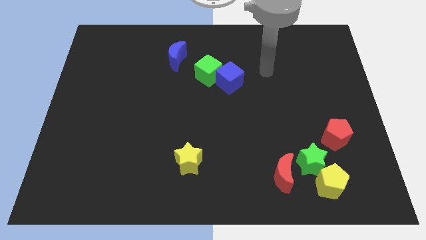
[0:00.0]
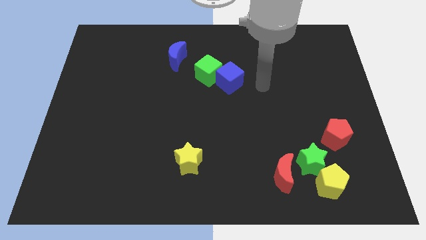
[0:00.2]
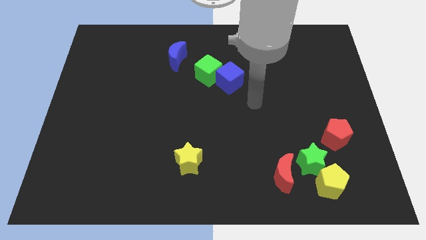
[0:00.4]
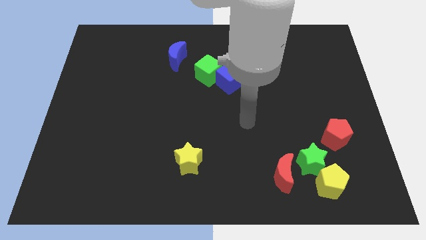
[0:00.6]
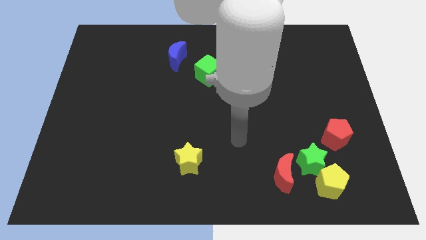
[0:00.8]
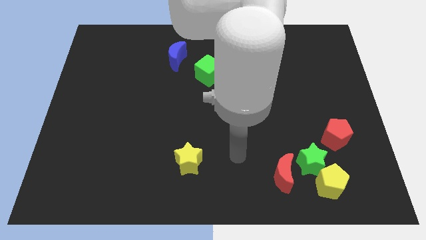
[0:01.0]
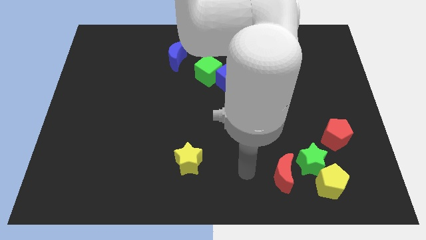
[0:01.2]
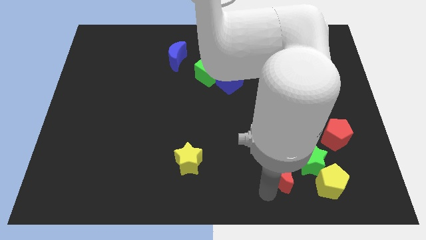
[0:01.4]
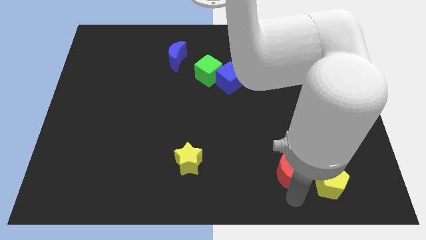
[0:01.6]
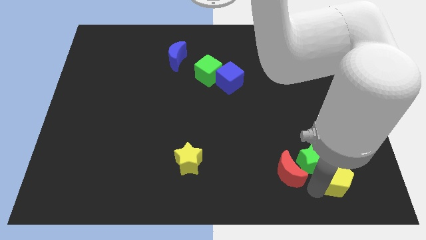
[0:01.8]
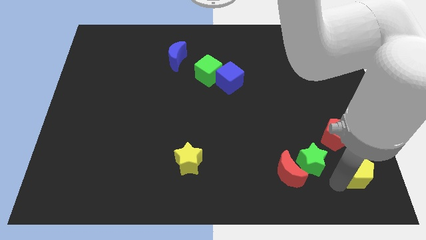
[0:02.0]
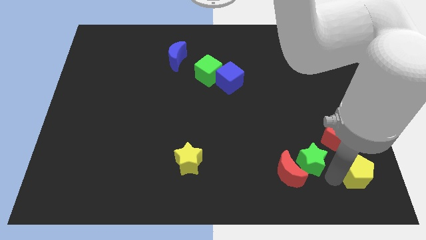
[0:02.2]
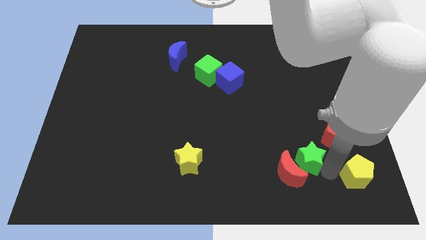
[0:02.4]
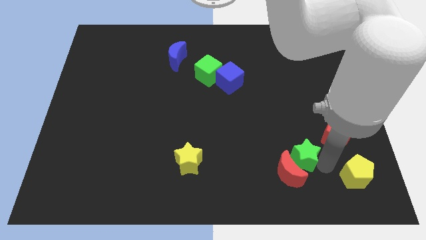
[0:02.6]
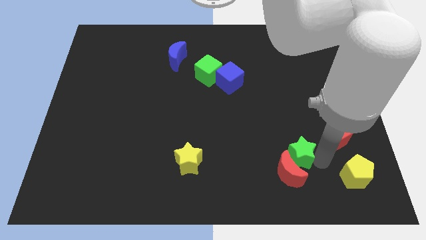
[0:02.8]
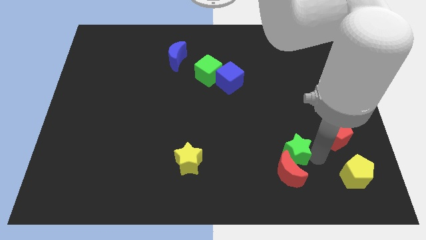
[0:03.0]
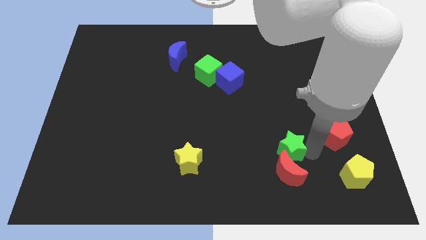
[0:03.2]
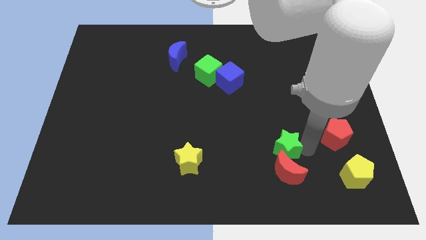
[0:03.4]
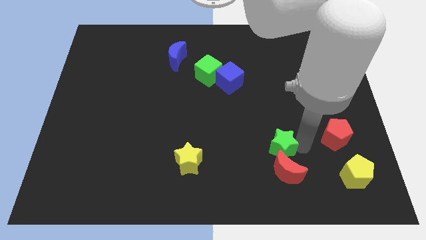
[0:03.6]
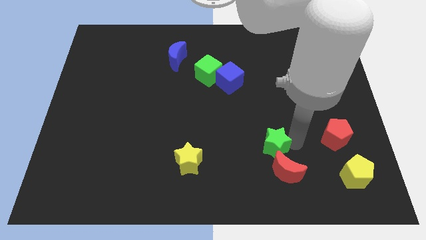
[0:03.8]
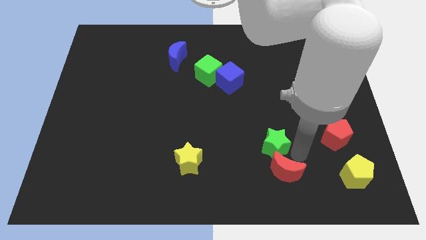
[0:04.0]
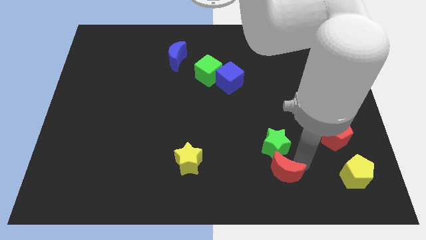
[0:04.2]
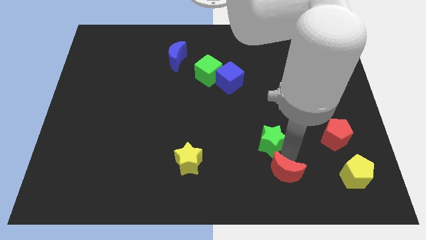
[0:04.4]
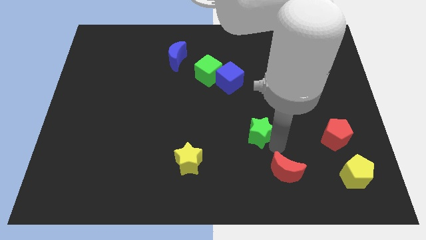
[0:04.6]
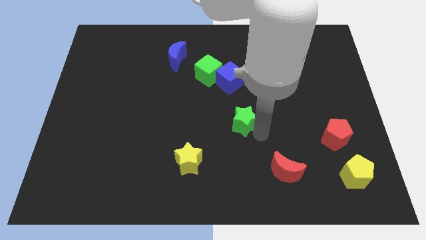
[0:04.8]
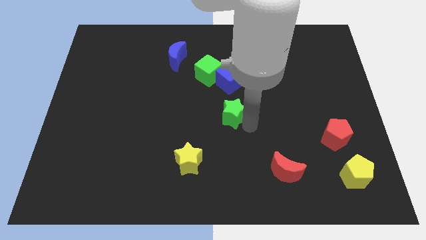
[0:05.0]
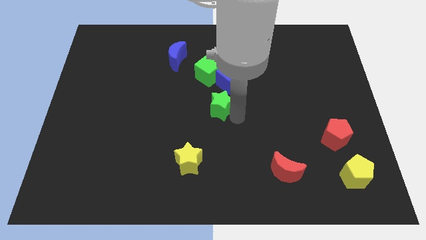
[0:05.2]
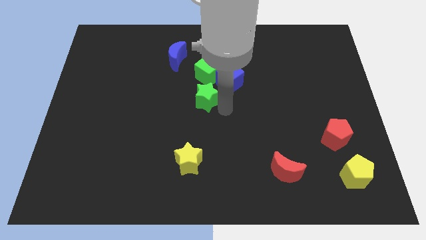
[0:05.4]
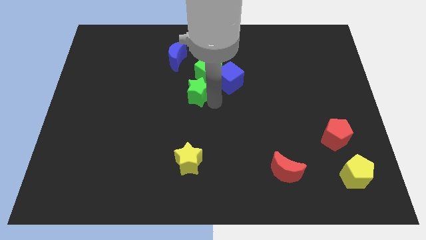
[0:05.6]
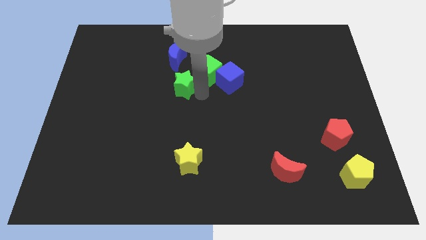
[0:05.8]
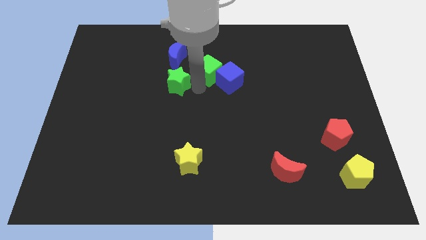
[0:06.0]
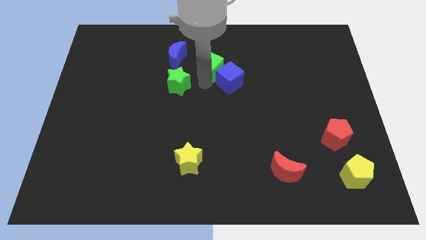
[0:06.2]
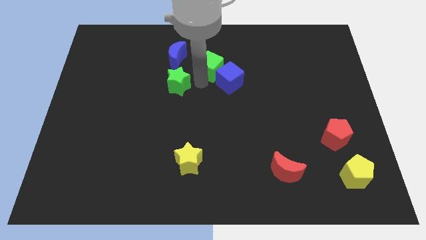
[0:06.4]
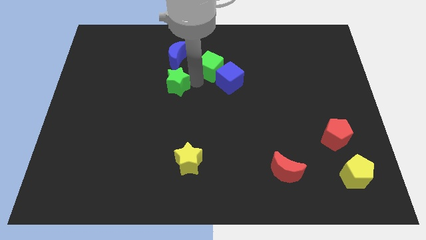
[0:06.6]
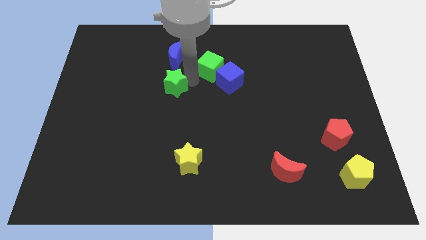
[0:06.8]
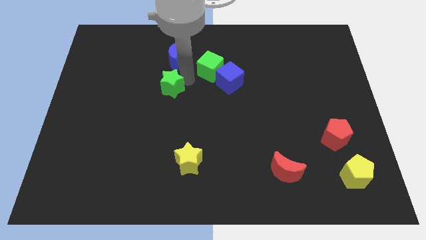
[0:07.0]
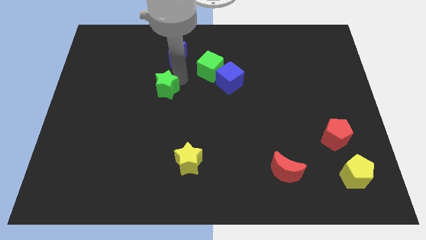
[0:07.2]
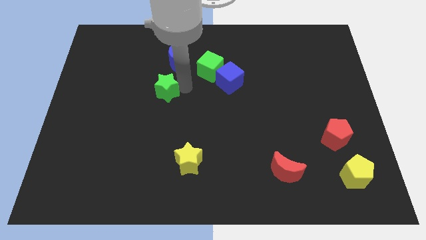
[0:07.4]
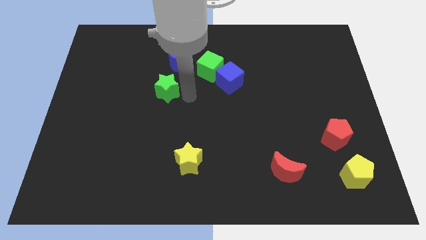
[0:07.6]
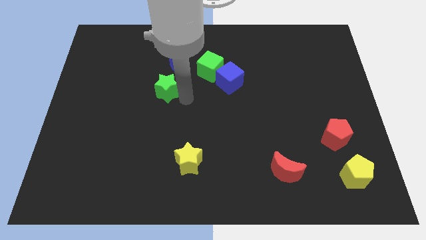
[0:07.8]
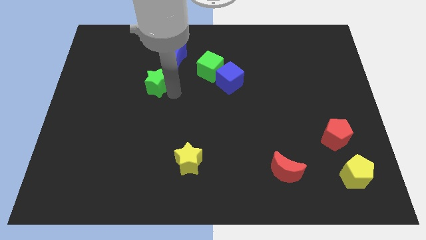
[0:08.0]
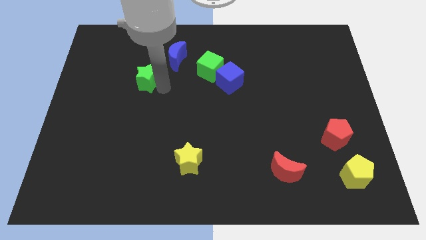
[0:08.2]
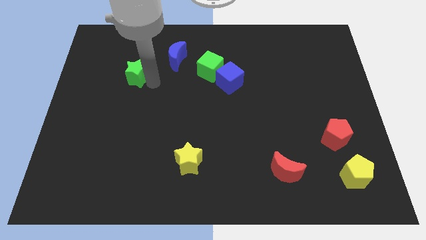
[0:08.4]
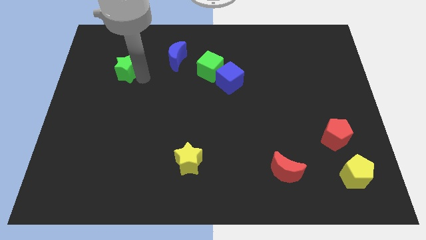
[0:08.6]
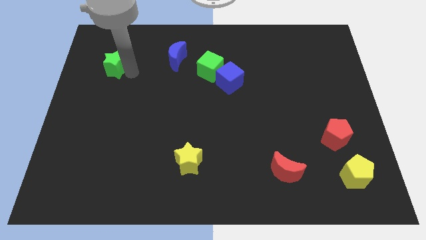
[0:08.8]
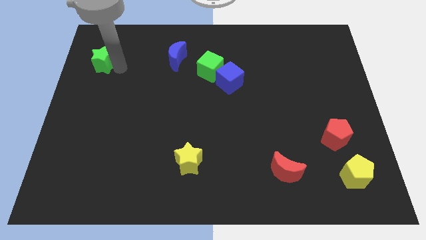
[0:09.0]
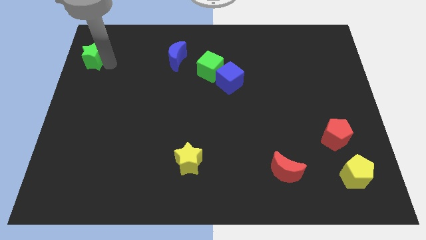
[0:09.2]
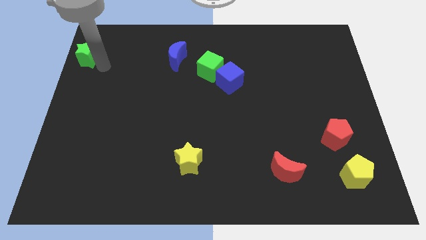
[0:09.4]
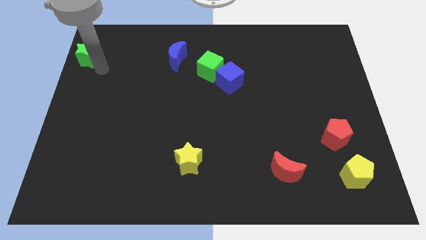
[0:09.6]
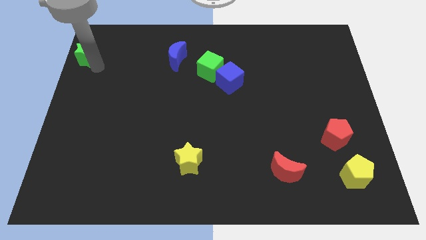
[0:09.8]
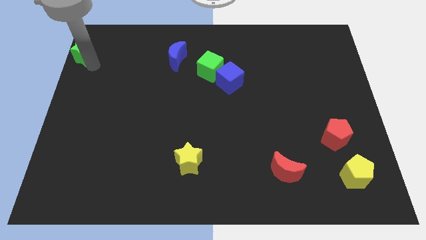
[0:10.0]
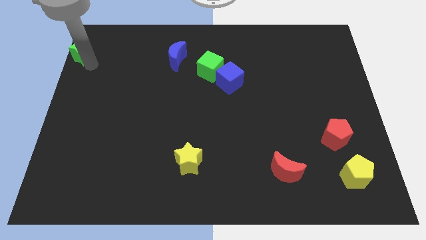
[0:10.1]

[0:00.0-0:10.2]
move the green star to the top left

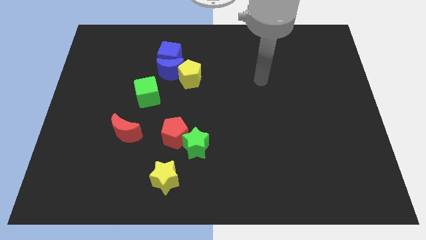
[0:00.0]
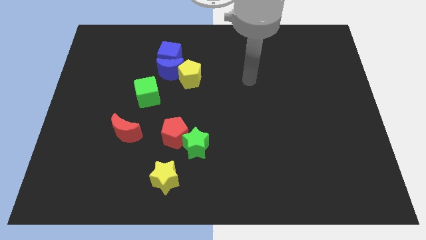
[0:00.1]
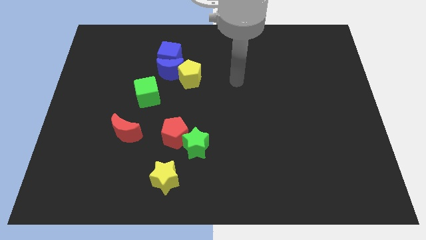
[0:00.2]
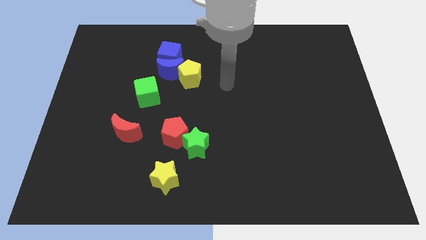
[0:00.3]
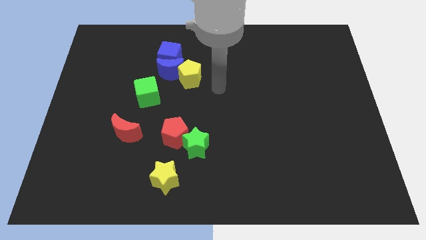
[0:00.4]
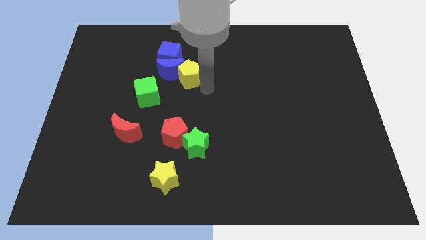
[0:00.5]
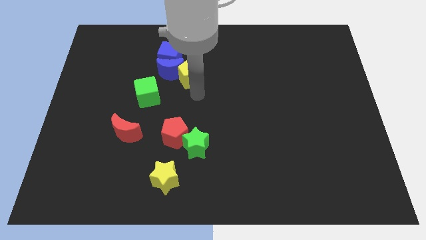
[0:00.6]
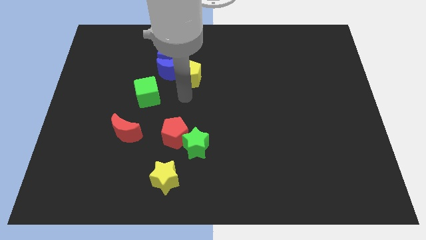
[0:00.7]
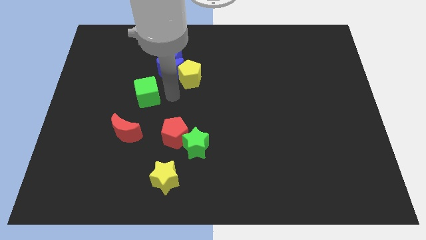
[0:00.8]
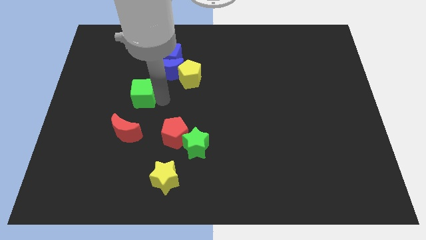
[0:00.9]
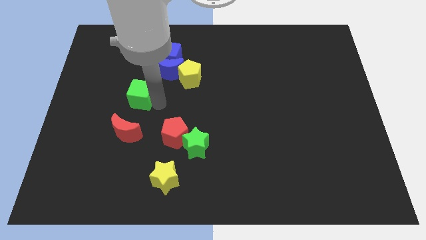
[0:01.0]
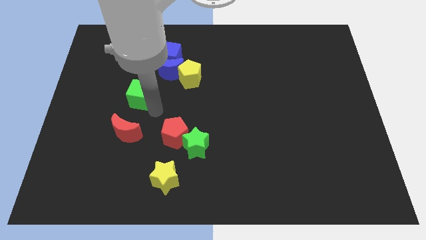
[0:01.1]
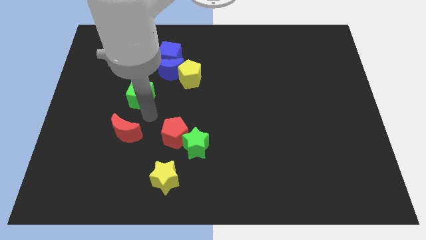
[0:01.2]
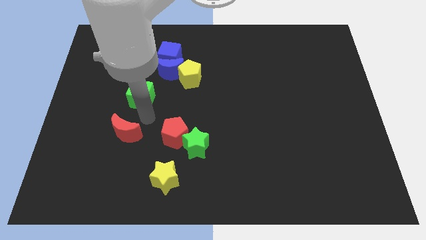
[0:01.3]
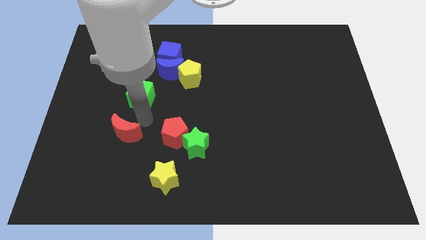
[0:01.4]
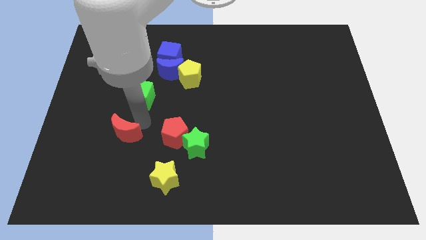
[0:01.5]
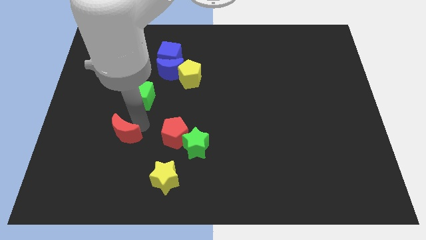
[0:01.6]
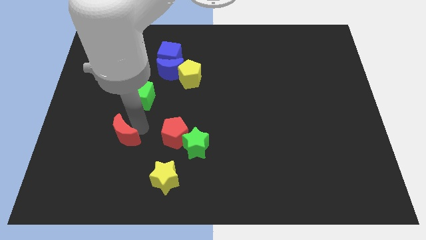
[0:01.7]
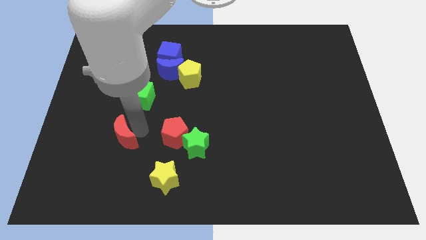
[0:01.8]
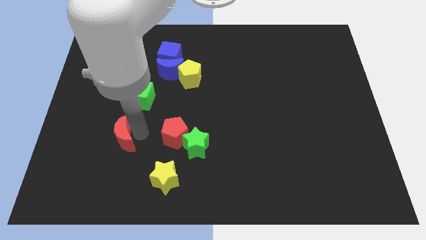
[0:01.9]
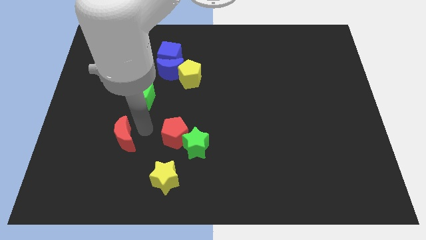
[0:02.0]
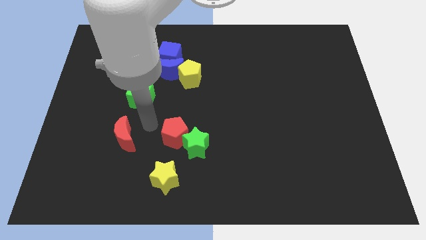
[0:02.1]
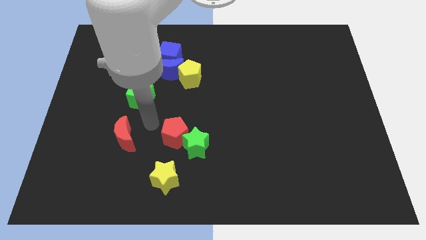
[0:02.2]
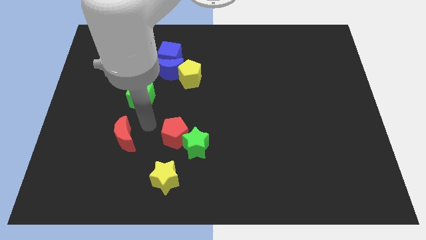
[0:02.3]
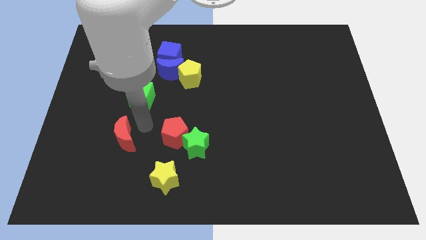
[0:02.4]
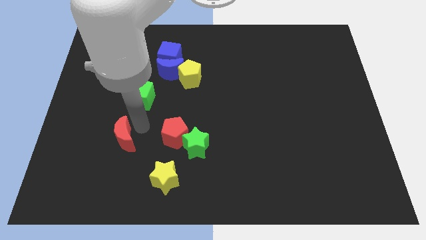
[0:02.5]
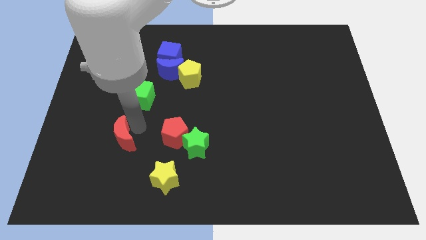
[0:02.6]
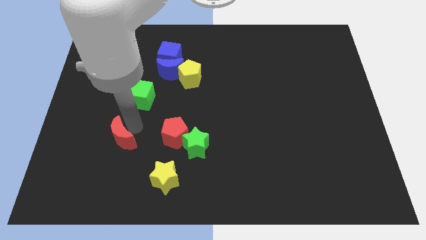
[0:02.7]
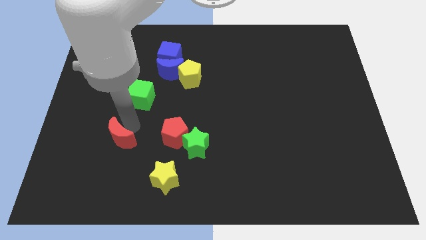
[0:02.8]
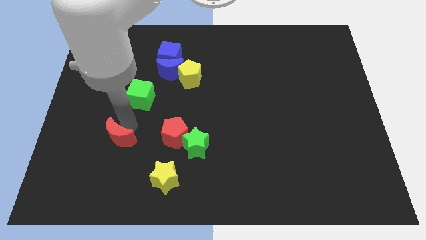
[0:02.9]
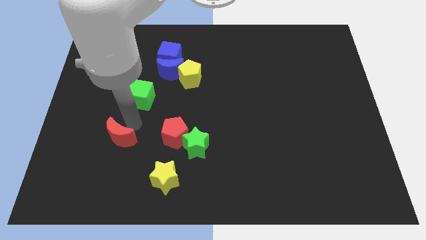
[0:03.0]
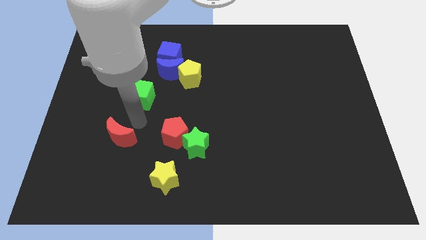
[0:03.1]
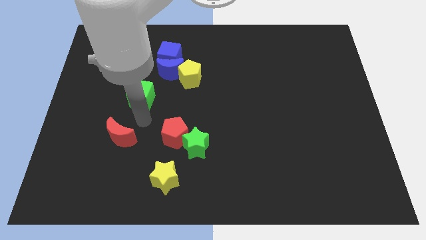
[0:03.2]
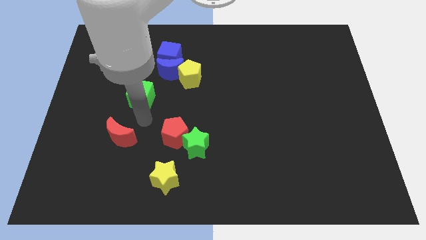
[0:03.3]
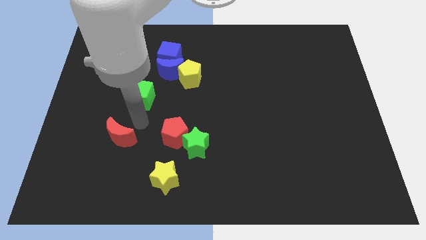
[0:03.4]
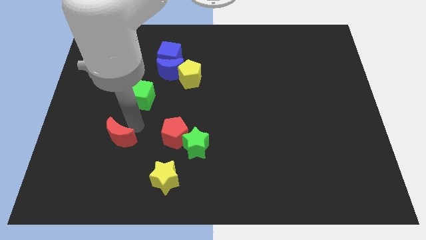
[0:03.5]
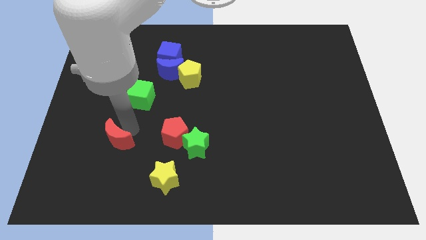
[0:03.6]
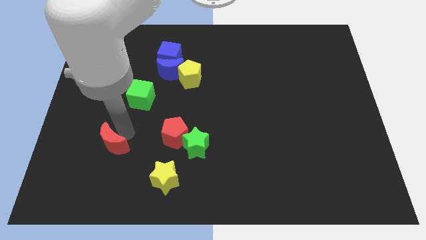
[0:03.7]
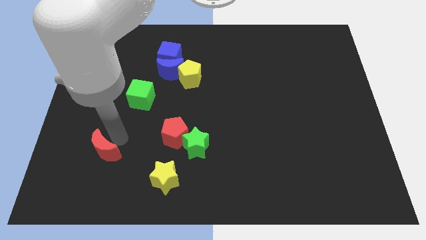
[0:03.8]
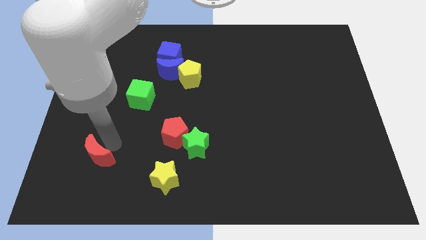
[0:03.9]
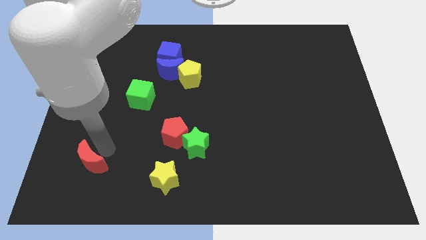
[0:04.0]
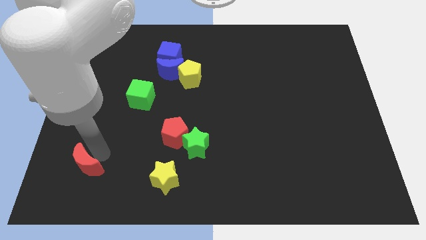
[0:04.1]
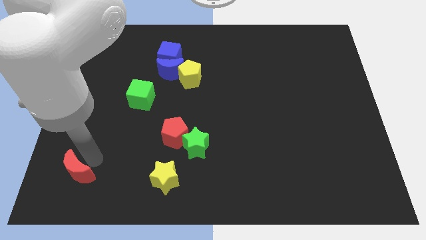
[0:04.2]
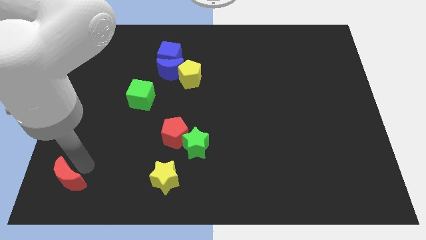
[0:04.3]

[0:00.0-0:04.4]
put the red moon to the lower left corner
